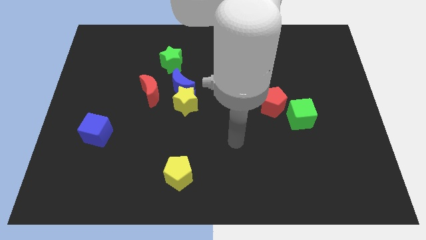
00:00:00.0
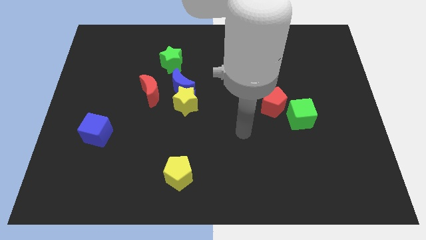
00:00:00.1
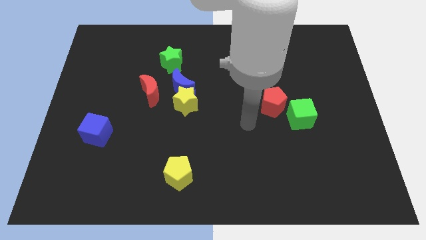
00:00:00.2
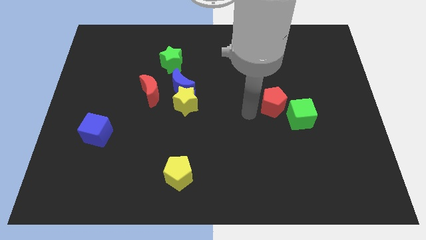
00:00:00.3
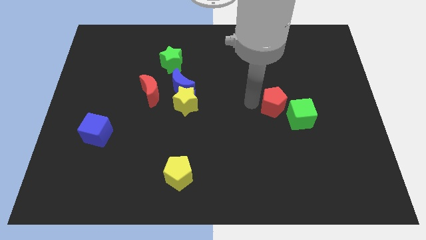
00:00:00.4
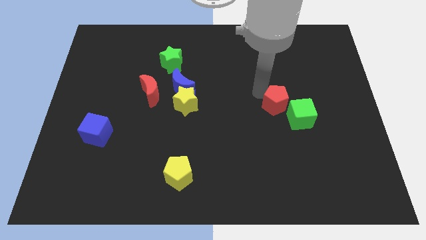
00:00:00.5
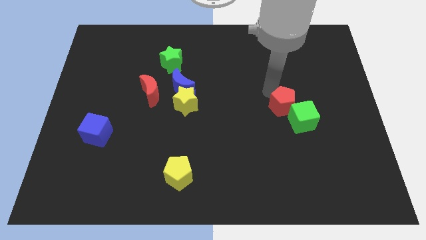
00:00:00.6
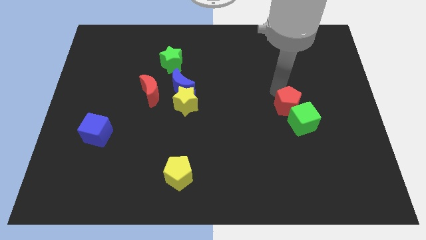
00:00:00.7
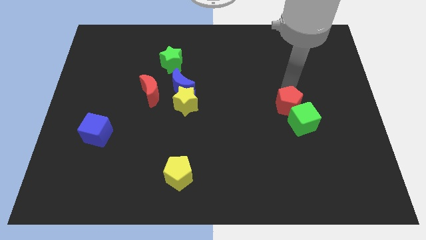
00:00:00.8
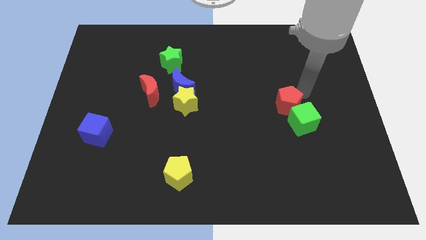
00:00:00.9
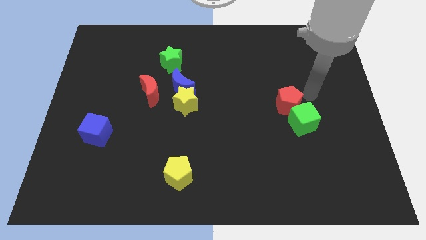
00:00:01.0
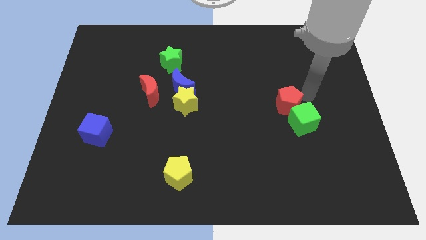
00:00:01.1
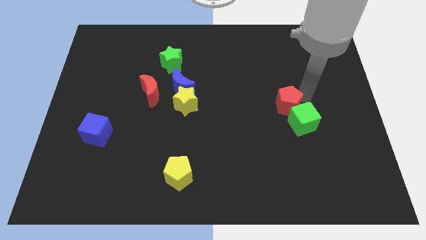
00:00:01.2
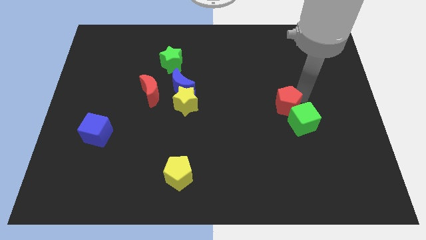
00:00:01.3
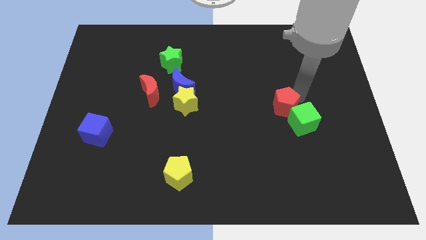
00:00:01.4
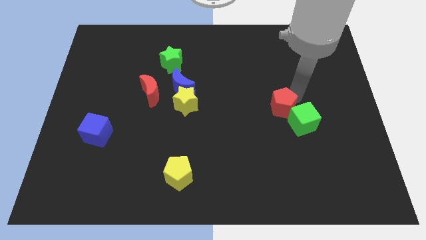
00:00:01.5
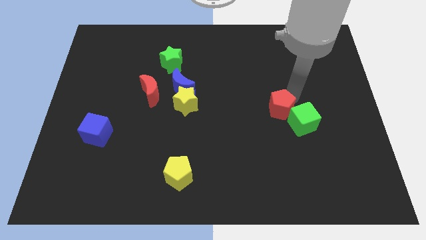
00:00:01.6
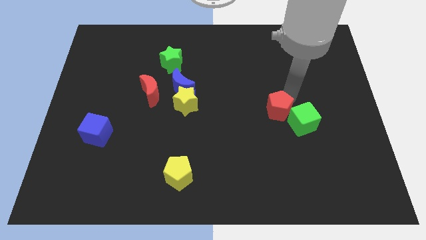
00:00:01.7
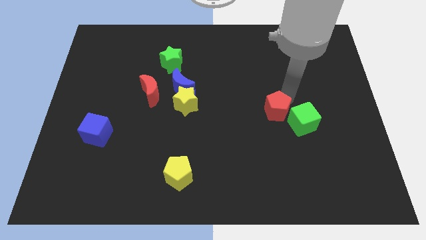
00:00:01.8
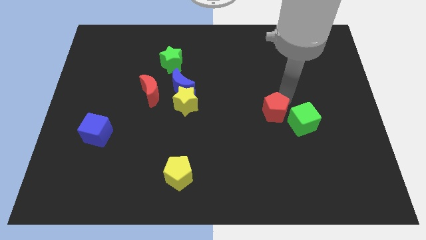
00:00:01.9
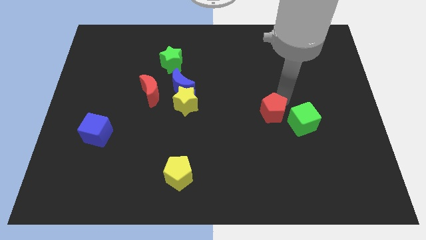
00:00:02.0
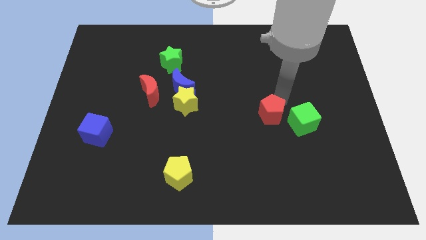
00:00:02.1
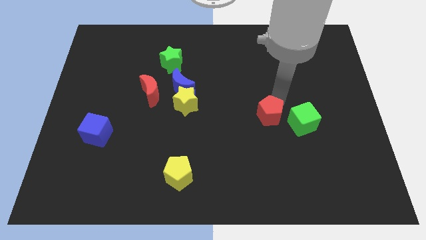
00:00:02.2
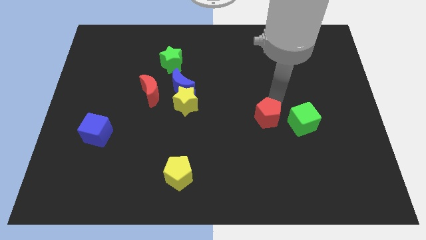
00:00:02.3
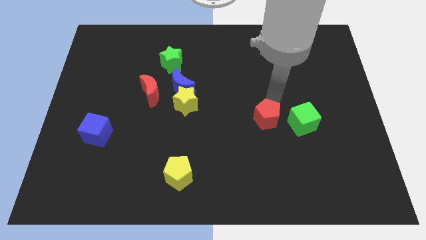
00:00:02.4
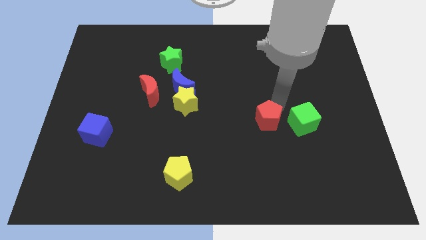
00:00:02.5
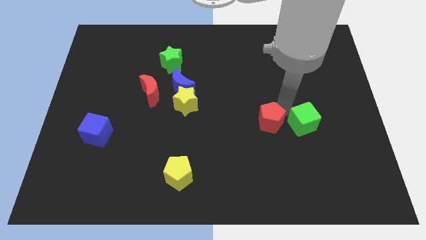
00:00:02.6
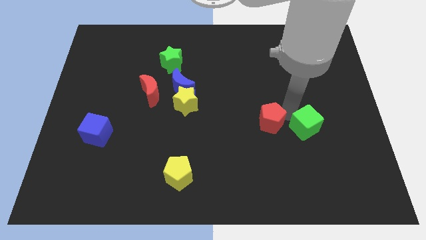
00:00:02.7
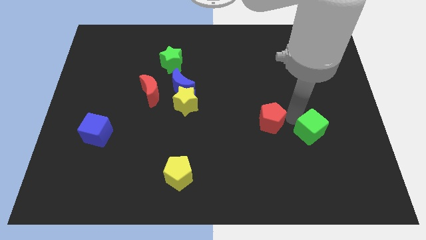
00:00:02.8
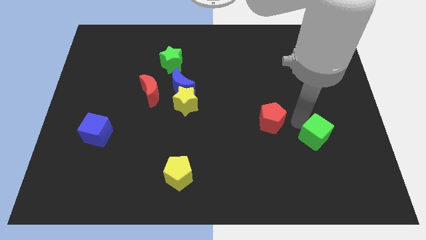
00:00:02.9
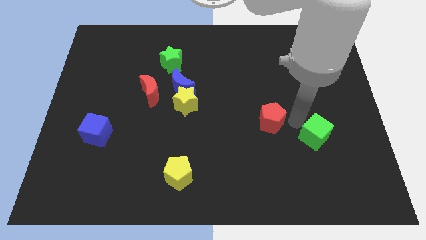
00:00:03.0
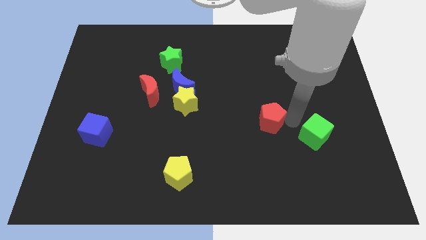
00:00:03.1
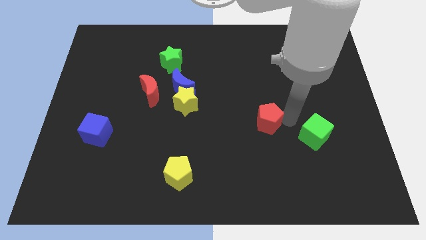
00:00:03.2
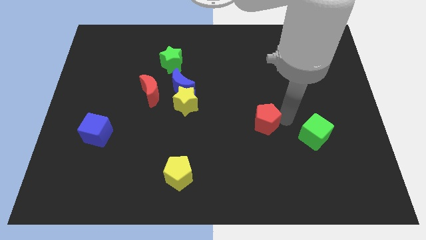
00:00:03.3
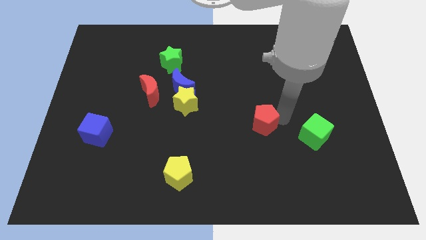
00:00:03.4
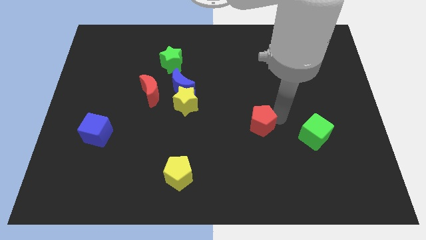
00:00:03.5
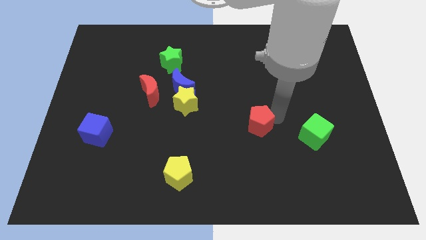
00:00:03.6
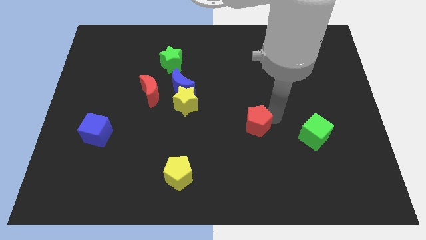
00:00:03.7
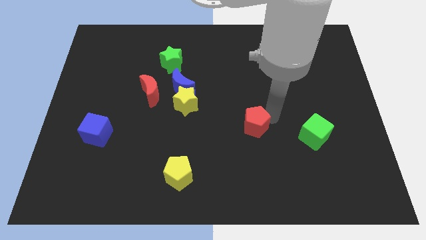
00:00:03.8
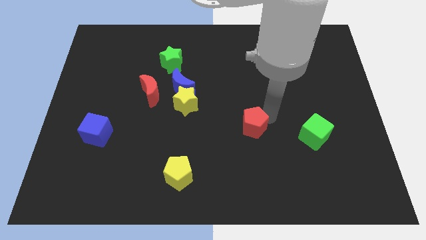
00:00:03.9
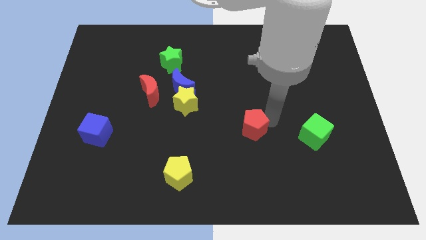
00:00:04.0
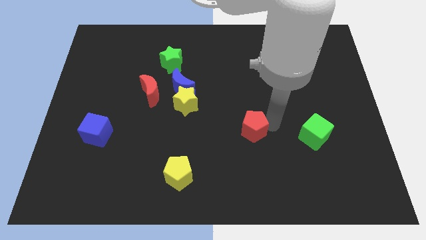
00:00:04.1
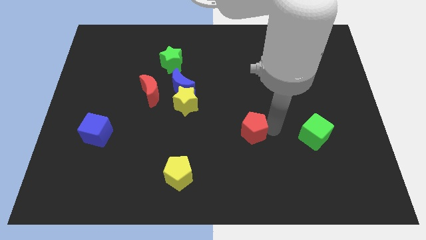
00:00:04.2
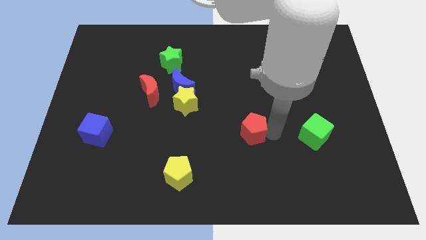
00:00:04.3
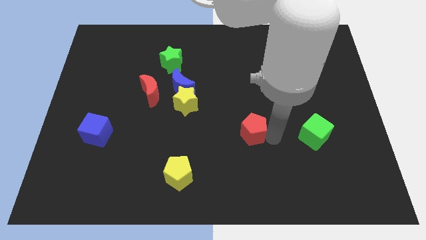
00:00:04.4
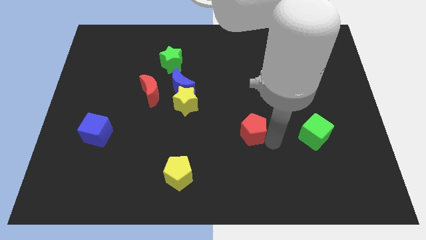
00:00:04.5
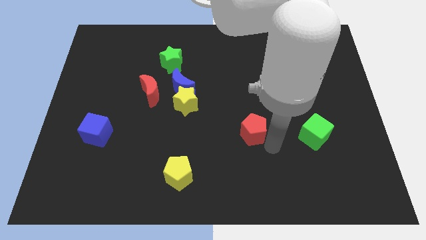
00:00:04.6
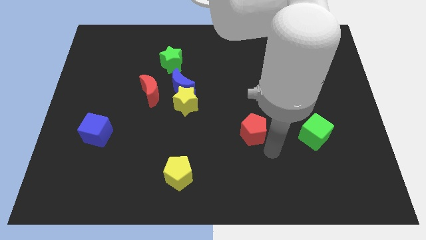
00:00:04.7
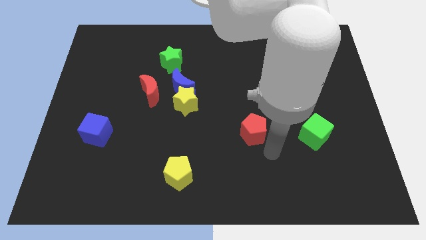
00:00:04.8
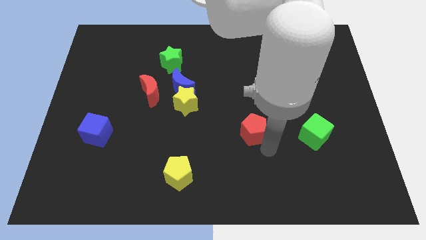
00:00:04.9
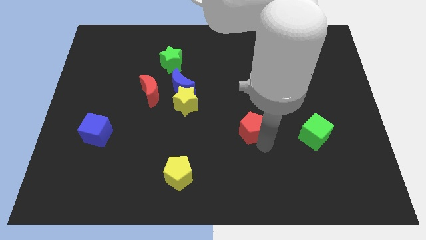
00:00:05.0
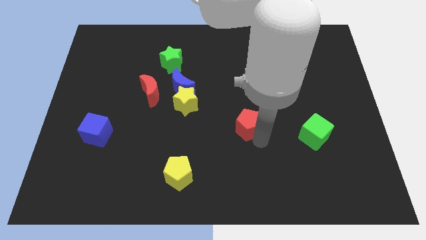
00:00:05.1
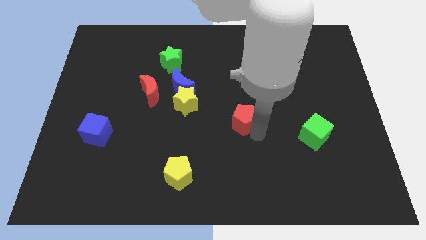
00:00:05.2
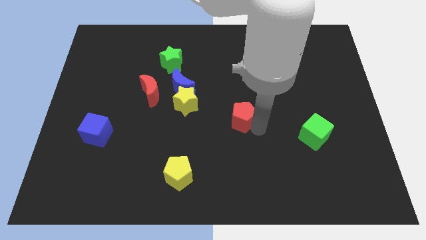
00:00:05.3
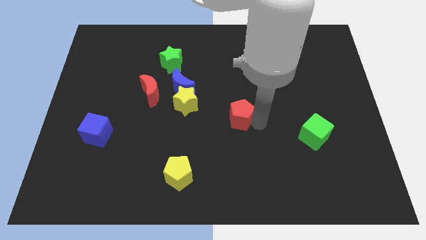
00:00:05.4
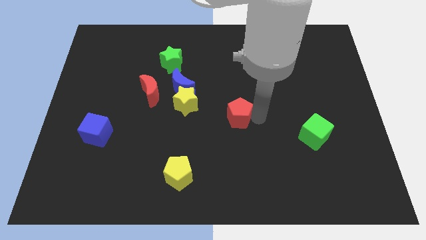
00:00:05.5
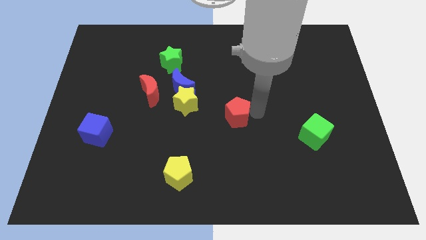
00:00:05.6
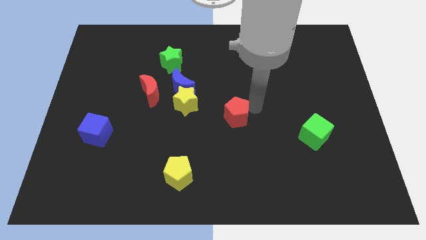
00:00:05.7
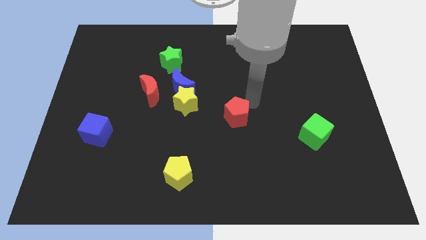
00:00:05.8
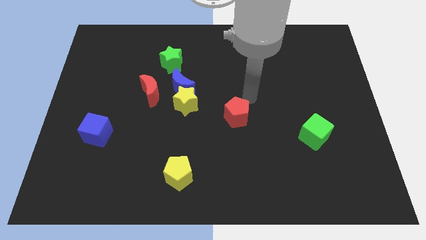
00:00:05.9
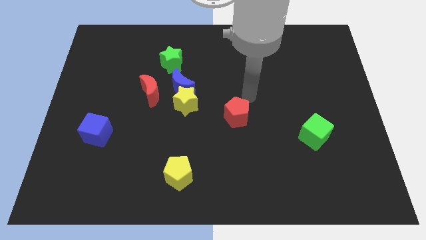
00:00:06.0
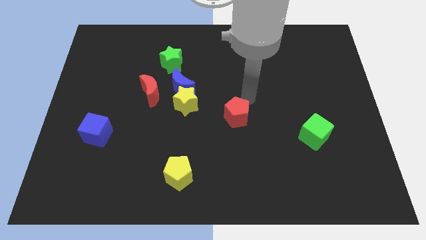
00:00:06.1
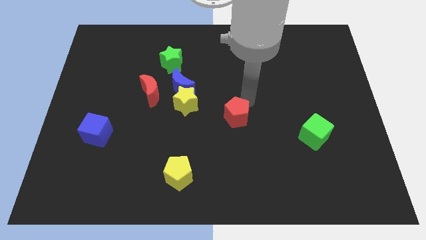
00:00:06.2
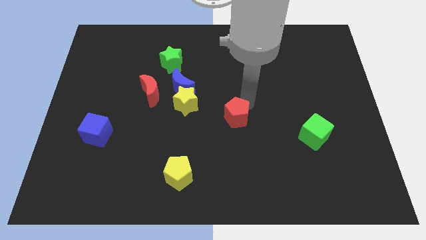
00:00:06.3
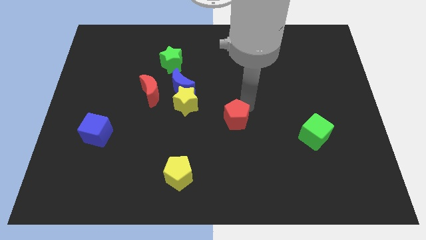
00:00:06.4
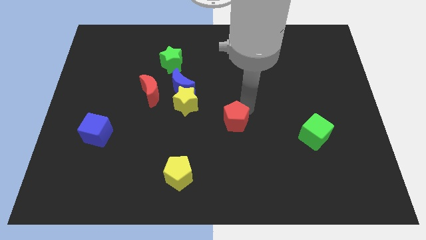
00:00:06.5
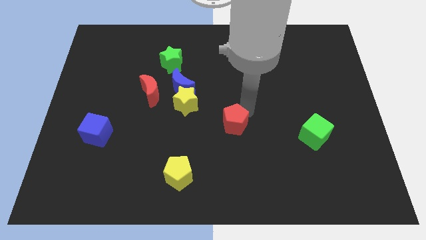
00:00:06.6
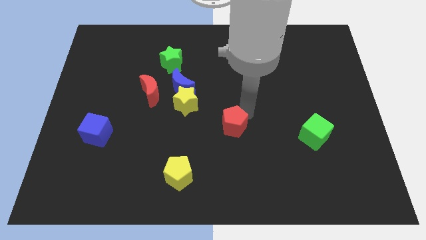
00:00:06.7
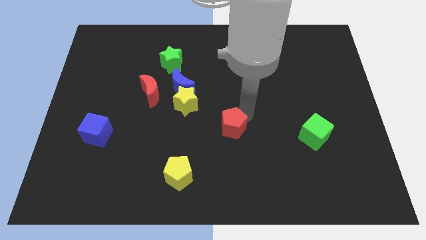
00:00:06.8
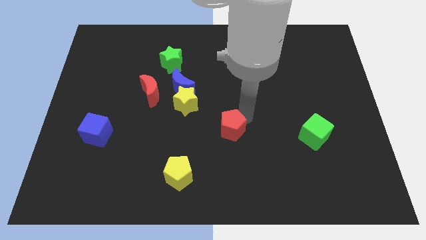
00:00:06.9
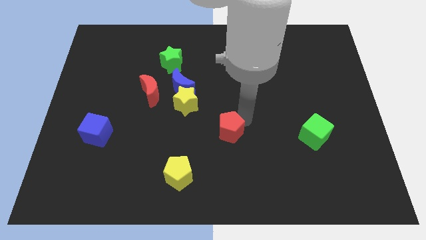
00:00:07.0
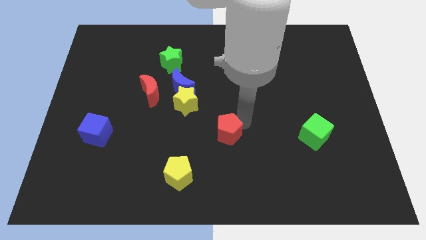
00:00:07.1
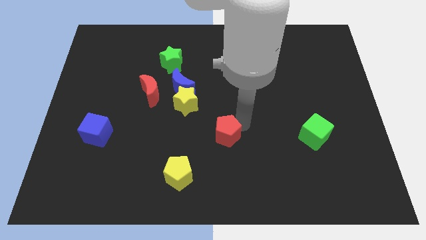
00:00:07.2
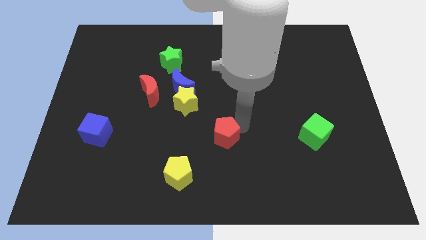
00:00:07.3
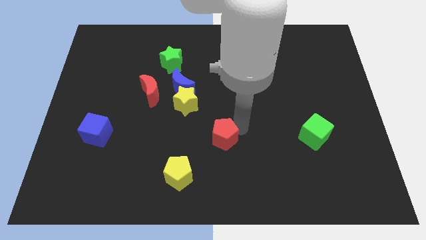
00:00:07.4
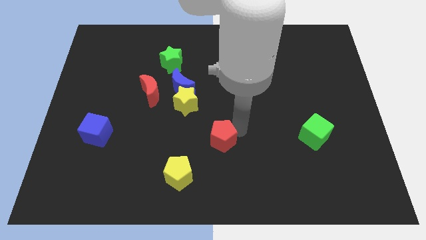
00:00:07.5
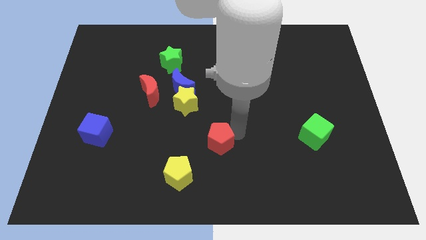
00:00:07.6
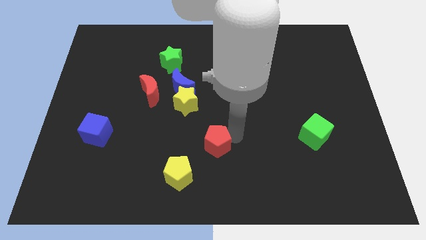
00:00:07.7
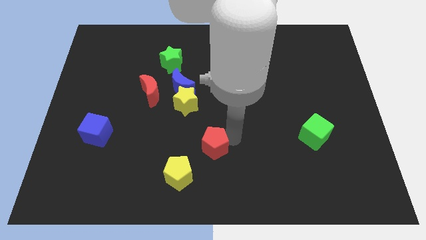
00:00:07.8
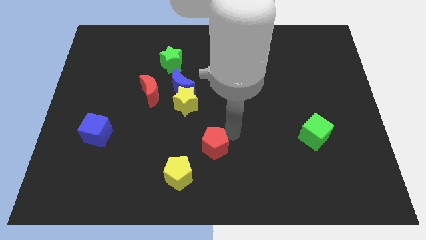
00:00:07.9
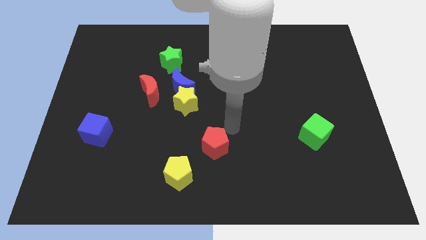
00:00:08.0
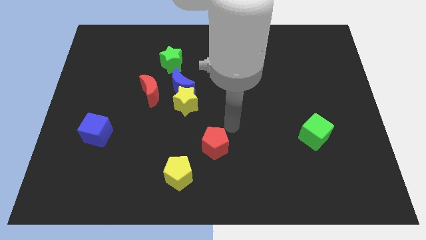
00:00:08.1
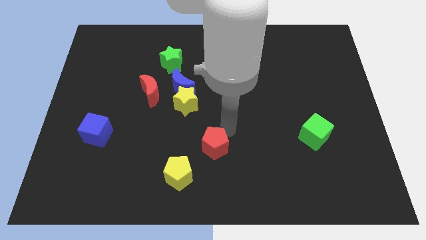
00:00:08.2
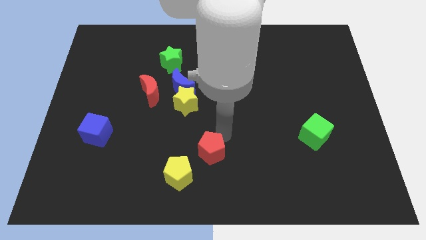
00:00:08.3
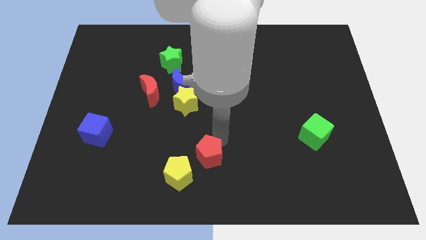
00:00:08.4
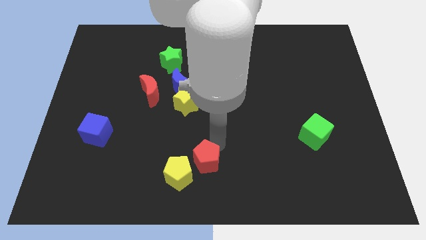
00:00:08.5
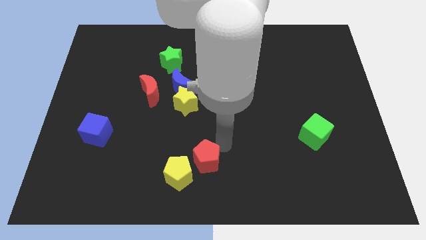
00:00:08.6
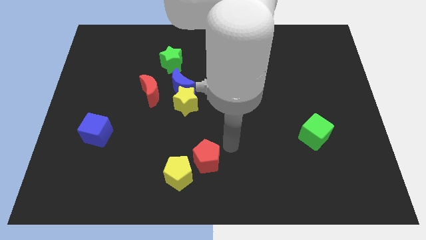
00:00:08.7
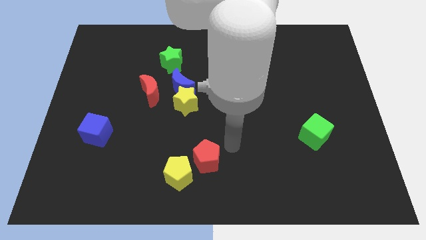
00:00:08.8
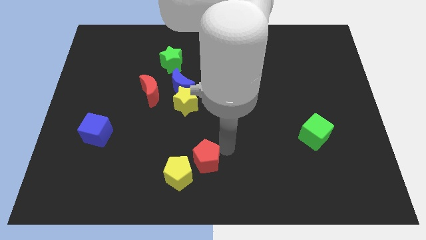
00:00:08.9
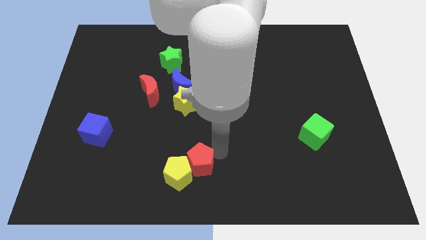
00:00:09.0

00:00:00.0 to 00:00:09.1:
move the red pentagon next to the yellow pentagon
